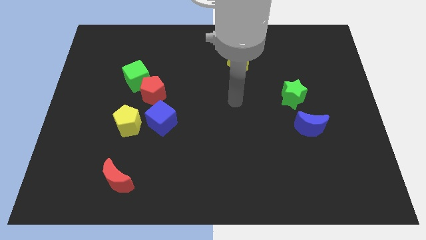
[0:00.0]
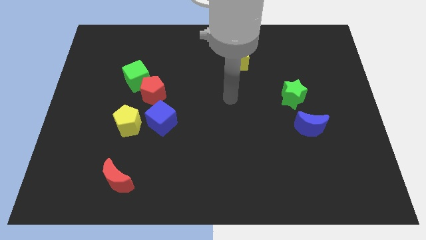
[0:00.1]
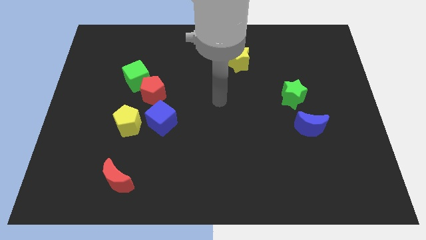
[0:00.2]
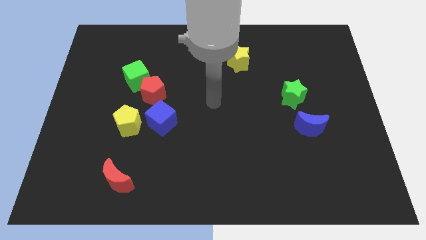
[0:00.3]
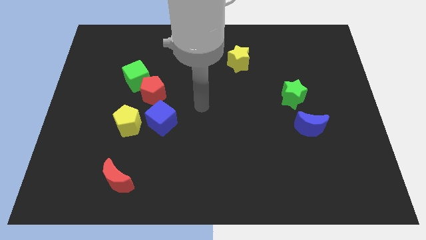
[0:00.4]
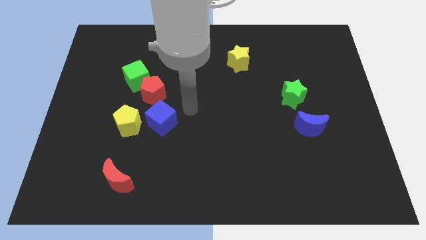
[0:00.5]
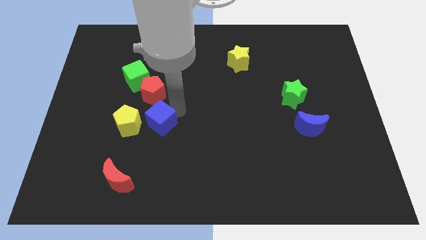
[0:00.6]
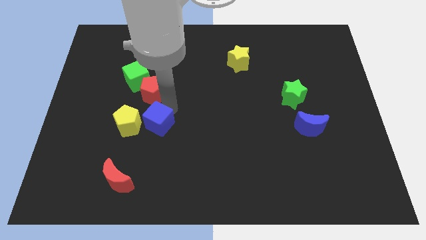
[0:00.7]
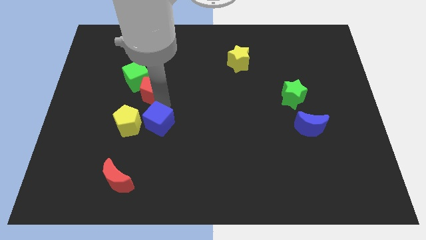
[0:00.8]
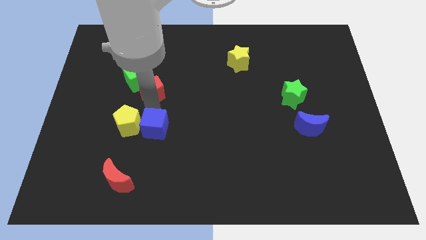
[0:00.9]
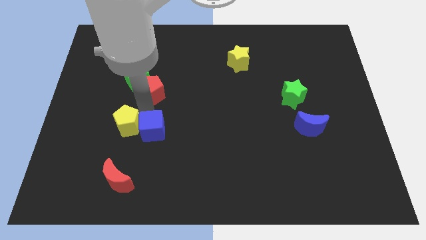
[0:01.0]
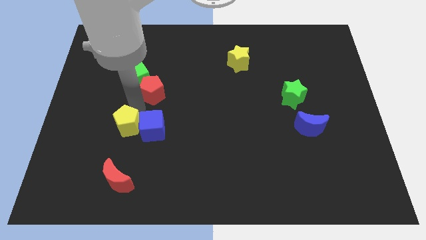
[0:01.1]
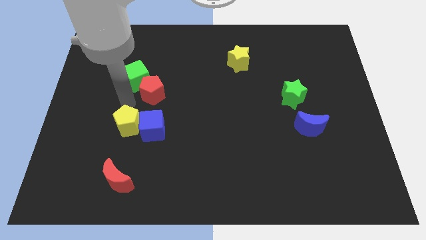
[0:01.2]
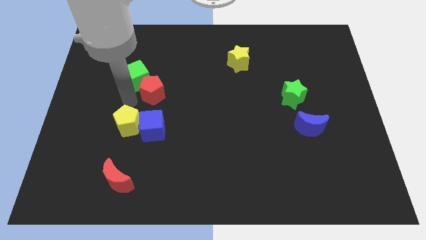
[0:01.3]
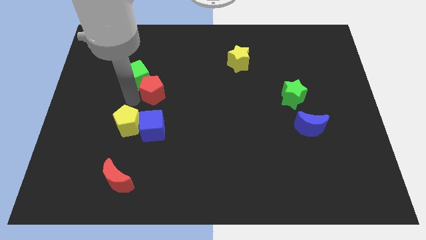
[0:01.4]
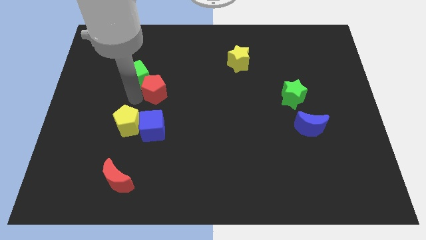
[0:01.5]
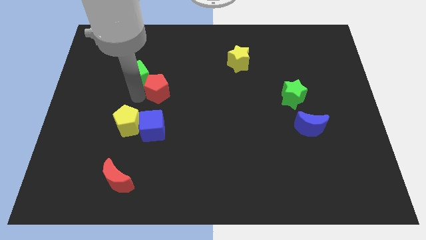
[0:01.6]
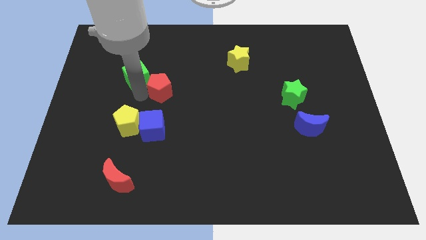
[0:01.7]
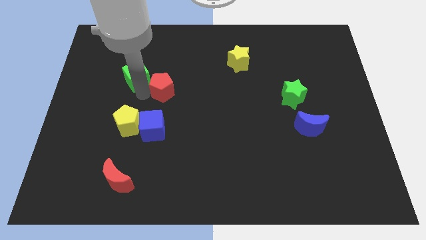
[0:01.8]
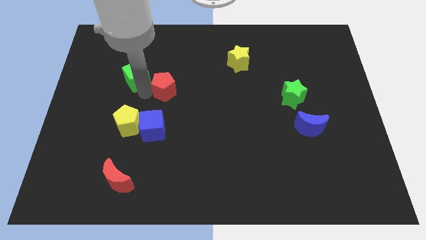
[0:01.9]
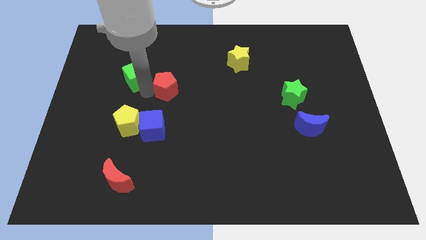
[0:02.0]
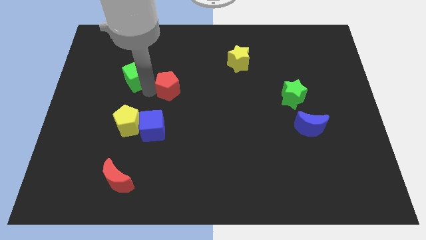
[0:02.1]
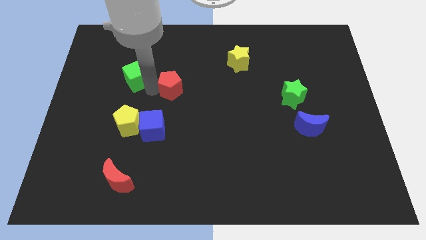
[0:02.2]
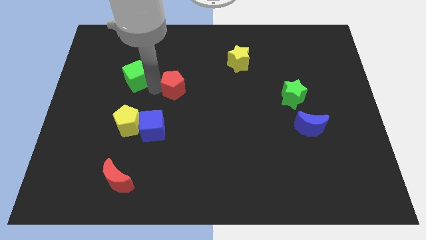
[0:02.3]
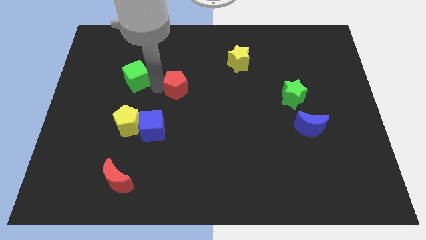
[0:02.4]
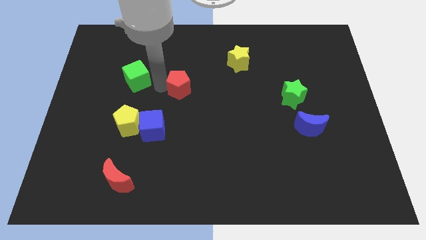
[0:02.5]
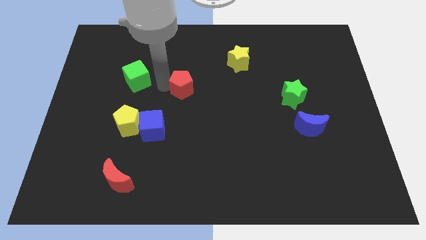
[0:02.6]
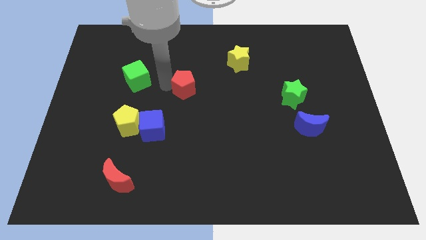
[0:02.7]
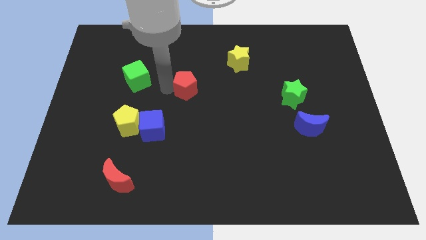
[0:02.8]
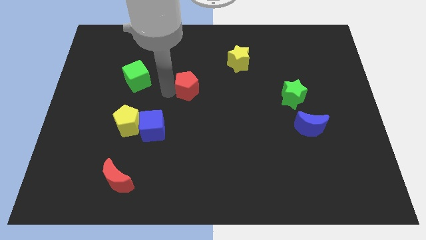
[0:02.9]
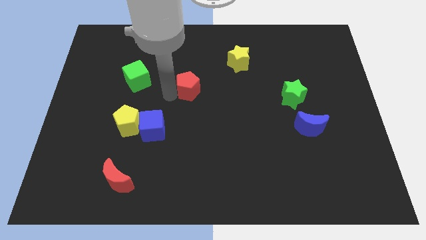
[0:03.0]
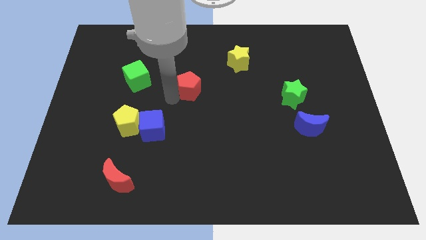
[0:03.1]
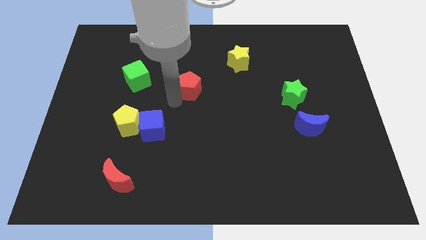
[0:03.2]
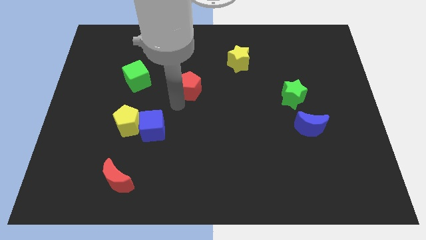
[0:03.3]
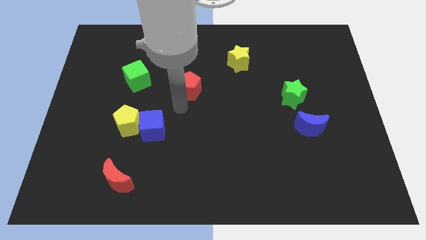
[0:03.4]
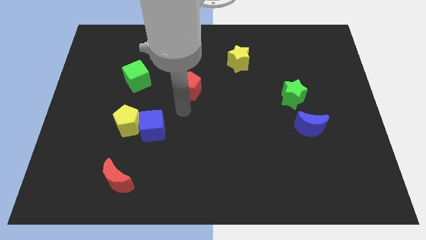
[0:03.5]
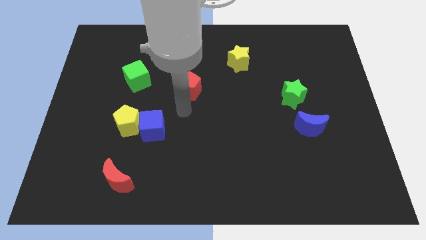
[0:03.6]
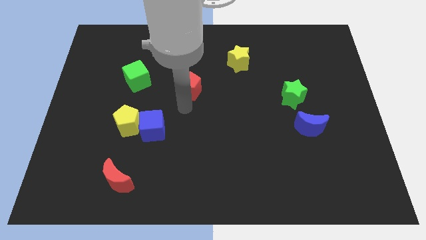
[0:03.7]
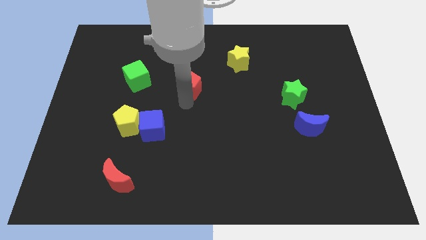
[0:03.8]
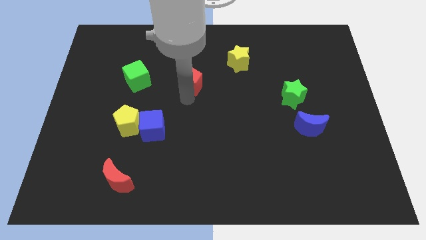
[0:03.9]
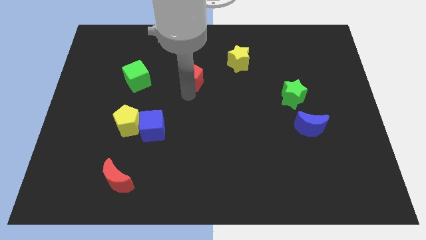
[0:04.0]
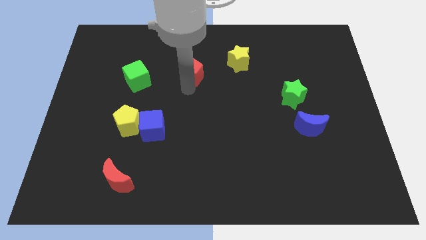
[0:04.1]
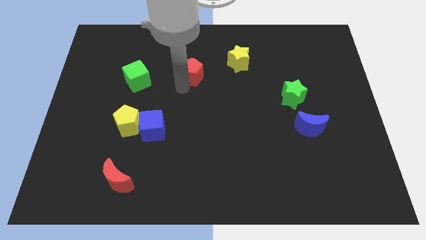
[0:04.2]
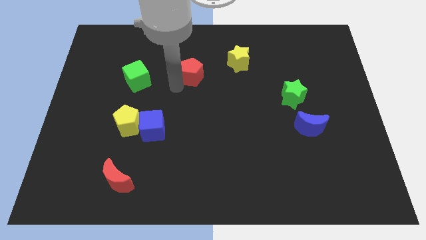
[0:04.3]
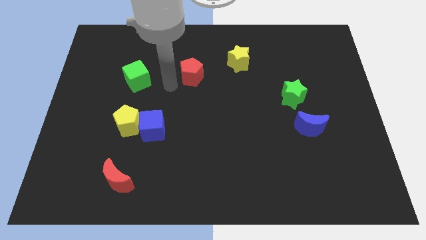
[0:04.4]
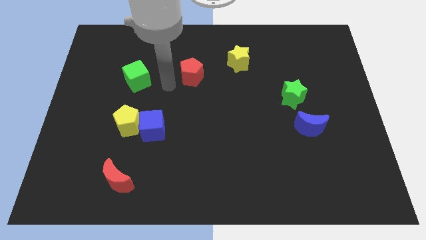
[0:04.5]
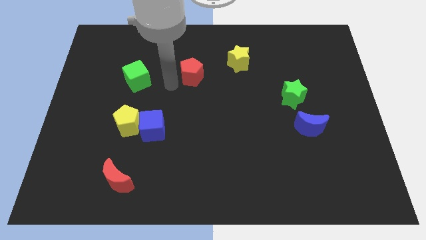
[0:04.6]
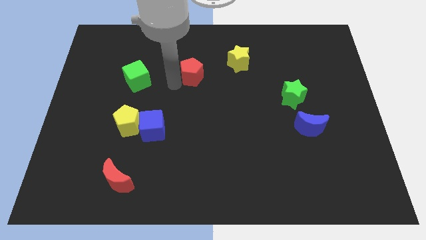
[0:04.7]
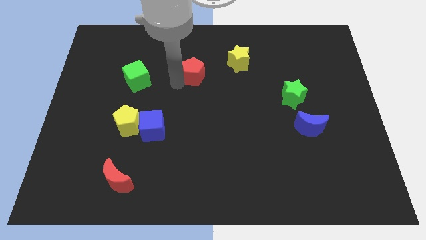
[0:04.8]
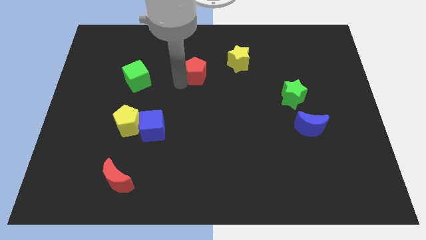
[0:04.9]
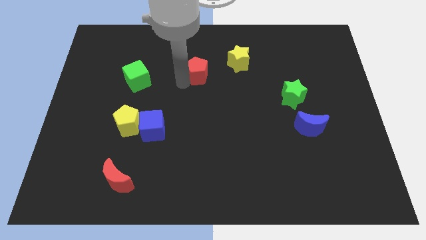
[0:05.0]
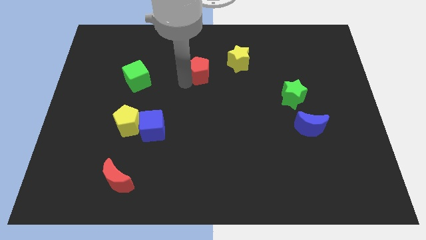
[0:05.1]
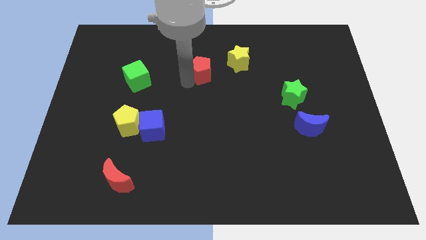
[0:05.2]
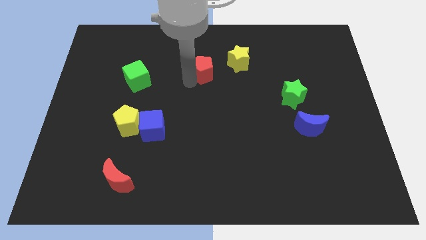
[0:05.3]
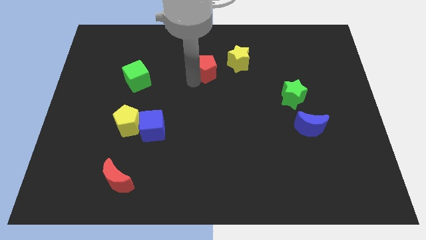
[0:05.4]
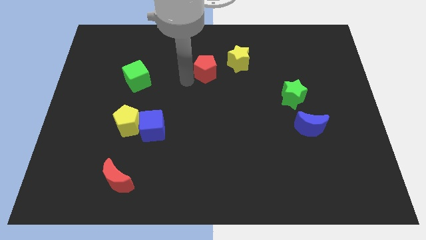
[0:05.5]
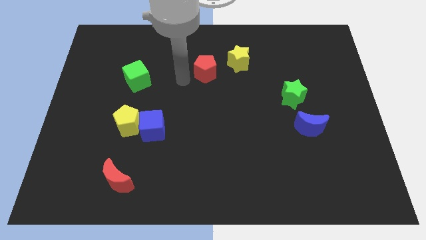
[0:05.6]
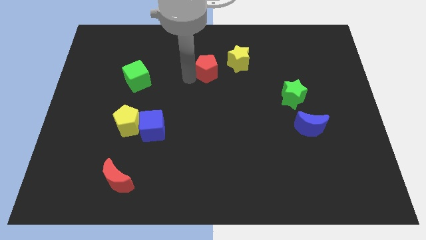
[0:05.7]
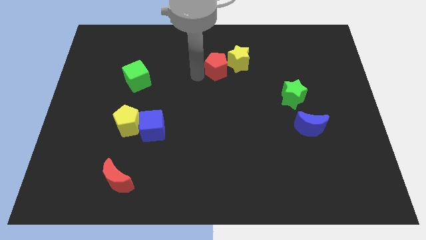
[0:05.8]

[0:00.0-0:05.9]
move the red pentagon towards the yellow star

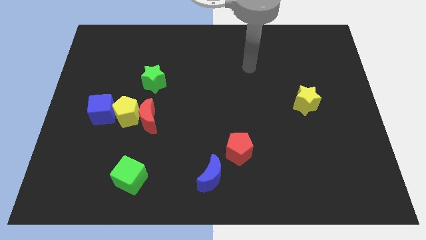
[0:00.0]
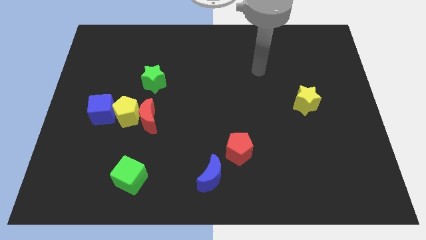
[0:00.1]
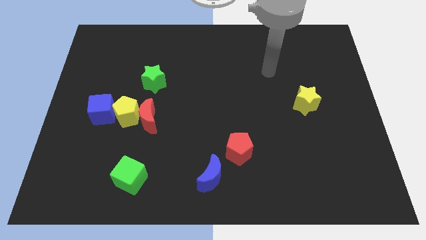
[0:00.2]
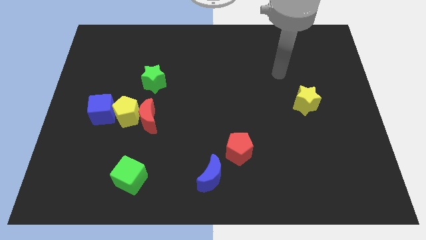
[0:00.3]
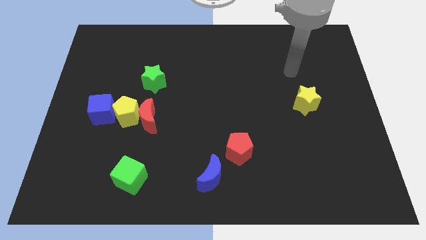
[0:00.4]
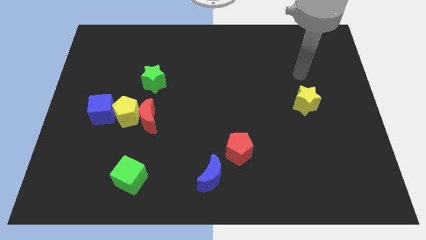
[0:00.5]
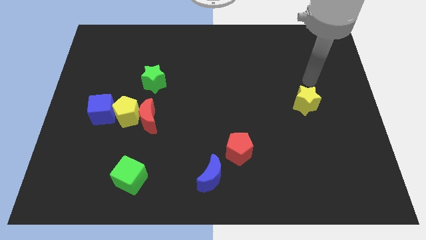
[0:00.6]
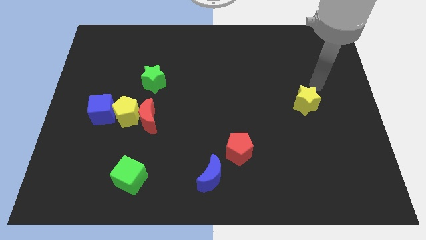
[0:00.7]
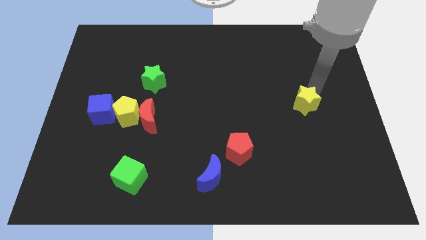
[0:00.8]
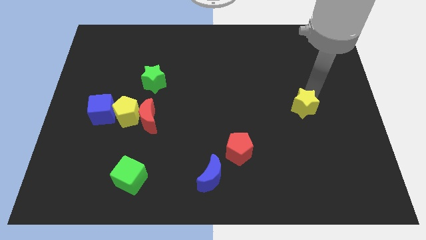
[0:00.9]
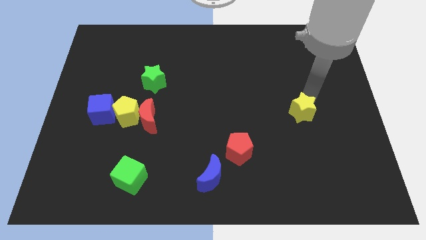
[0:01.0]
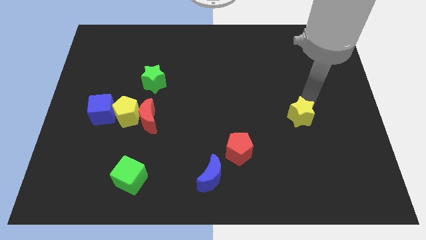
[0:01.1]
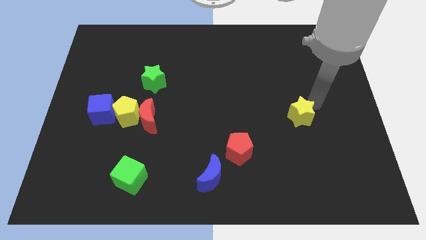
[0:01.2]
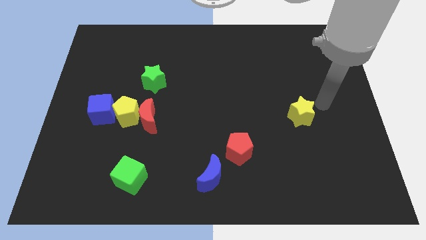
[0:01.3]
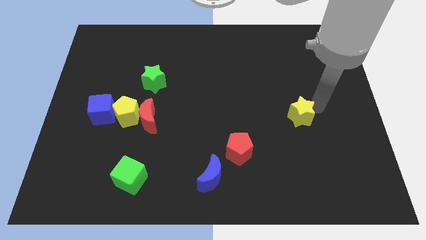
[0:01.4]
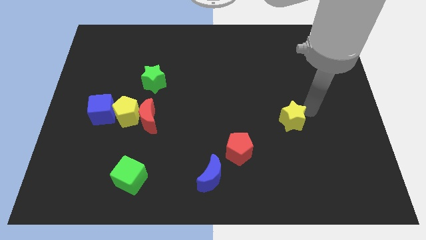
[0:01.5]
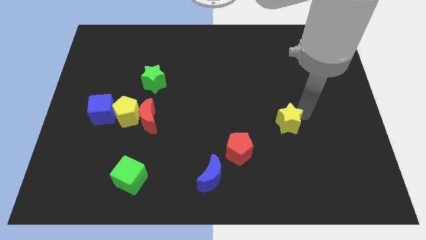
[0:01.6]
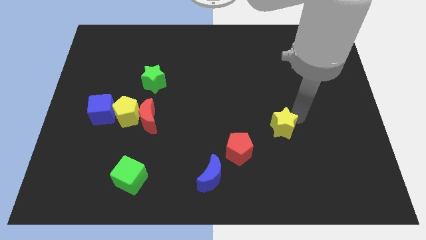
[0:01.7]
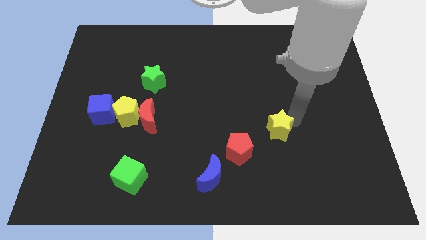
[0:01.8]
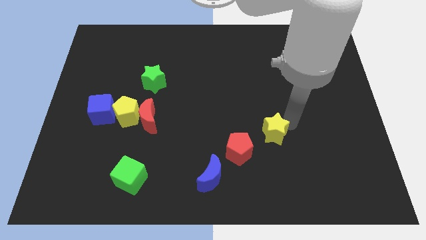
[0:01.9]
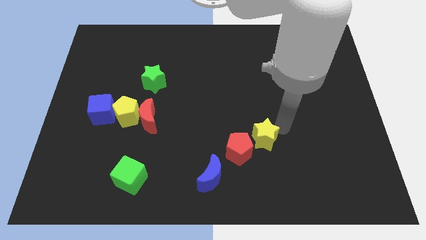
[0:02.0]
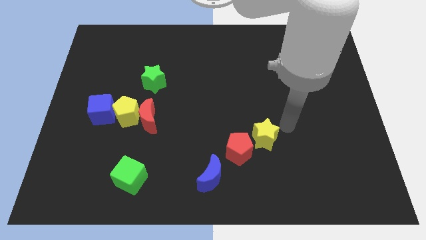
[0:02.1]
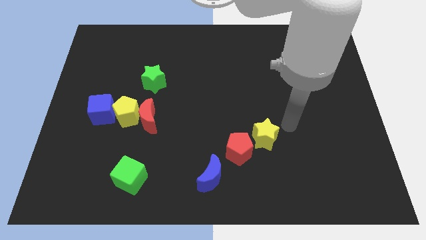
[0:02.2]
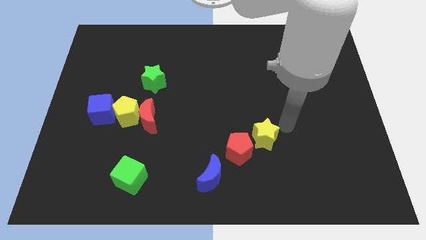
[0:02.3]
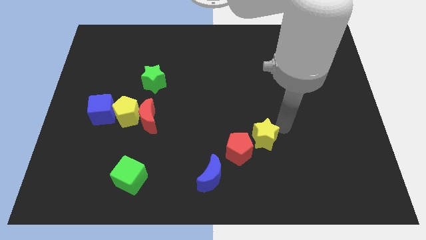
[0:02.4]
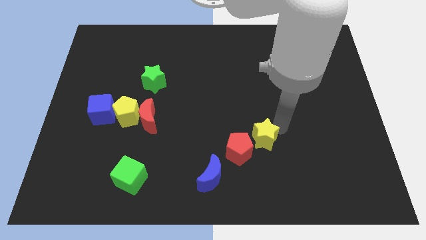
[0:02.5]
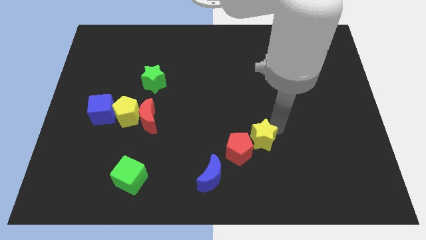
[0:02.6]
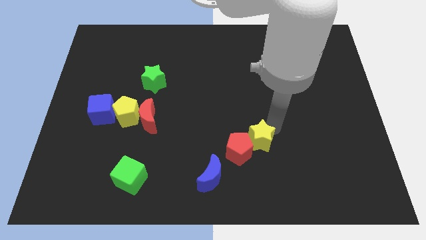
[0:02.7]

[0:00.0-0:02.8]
move the yellow star towards the red pentagon

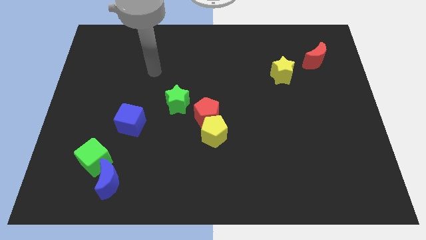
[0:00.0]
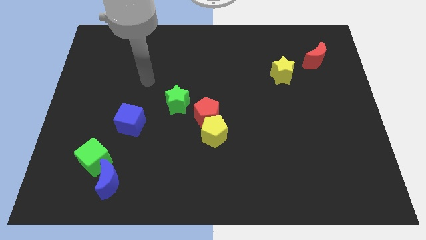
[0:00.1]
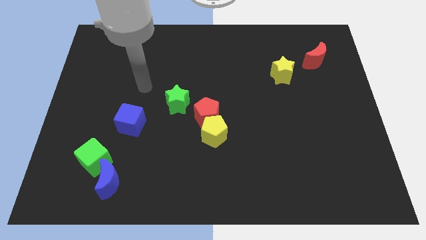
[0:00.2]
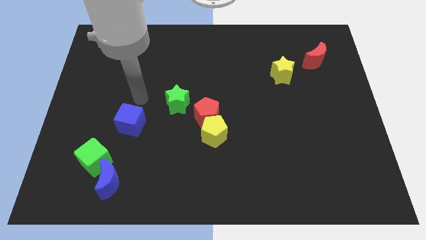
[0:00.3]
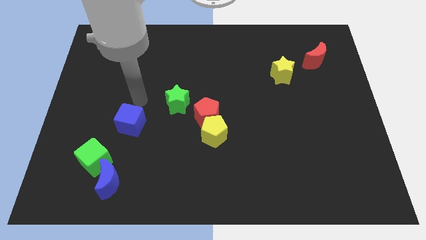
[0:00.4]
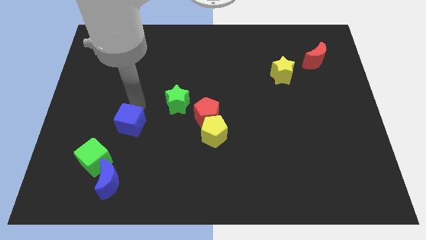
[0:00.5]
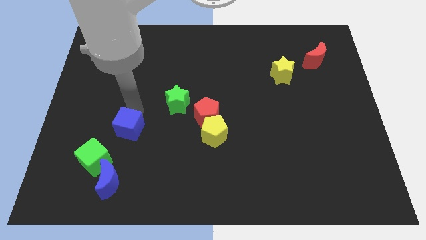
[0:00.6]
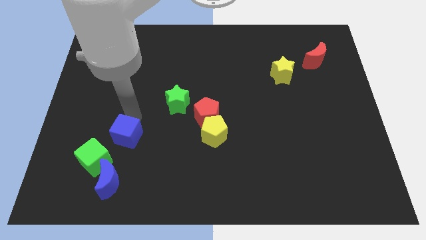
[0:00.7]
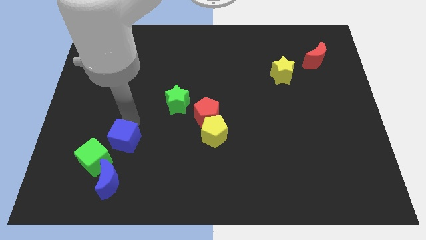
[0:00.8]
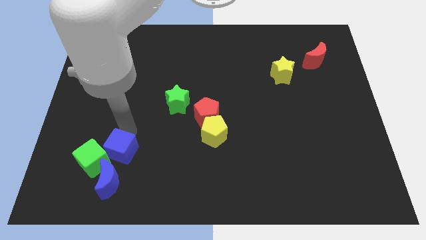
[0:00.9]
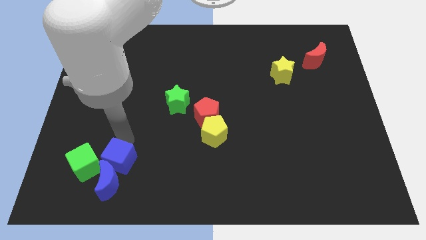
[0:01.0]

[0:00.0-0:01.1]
move the blue cube close to the blue moon
